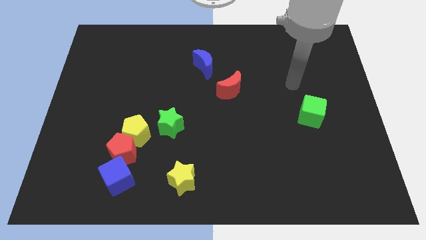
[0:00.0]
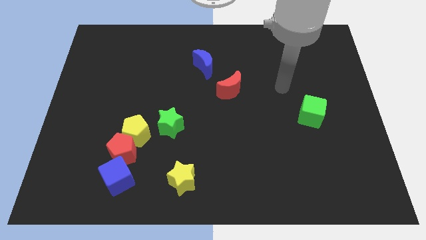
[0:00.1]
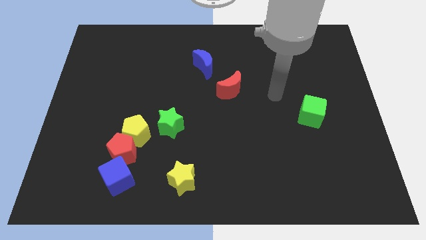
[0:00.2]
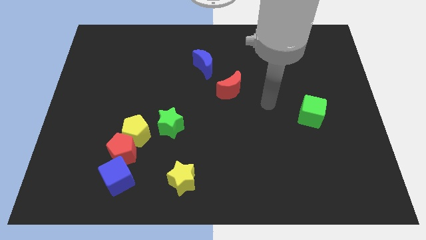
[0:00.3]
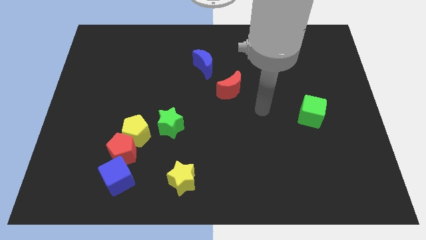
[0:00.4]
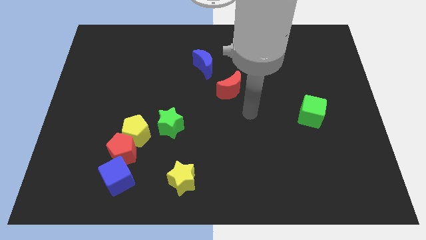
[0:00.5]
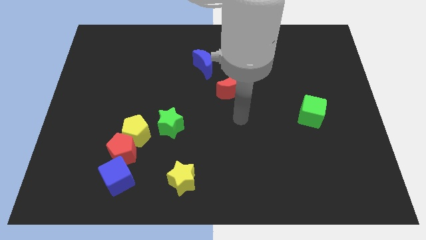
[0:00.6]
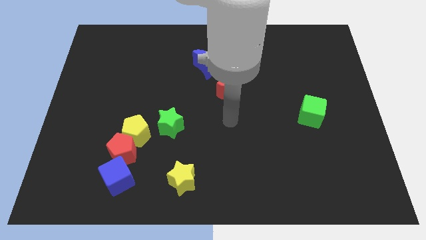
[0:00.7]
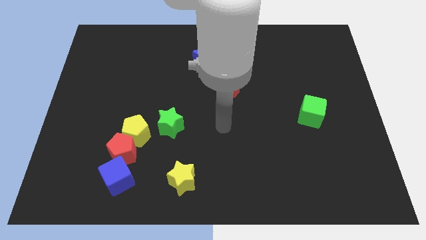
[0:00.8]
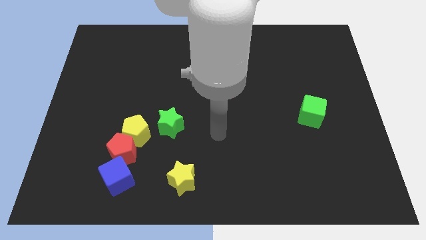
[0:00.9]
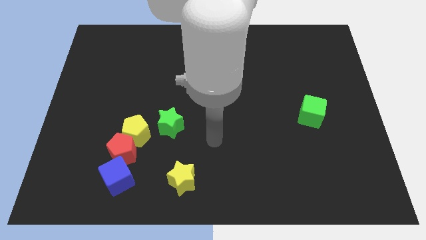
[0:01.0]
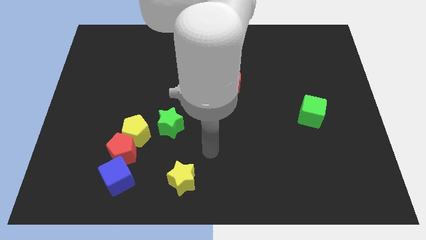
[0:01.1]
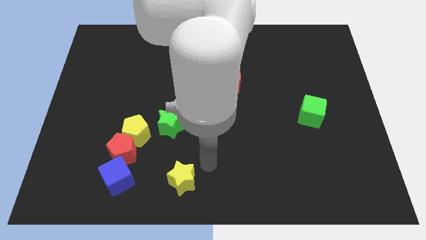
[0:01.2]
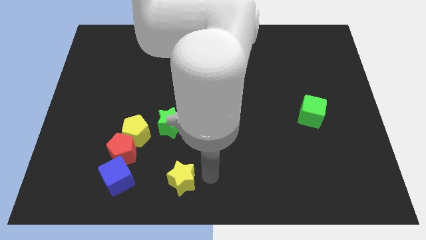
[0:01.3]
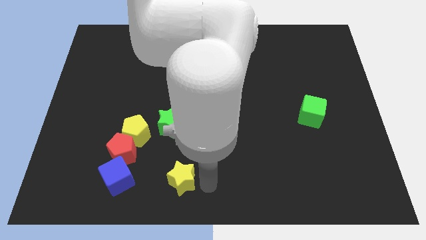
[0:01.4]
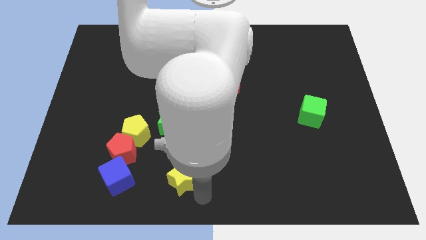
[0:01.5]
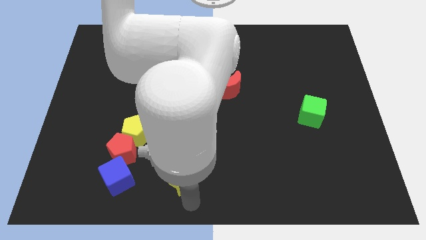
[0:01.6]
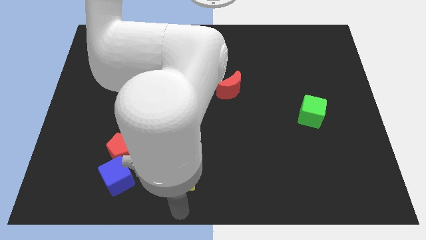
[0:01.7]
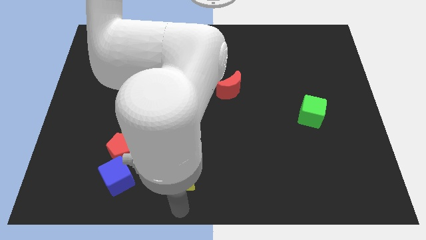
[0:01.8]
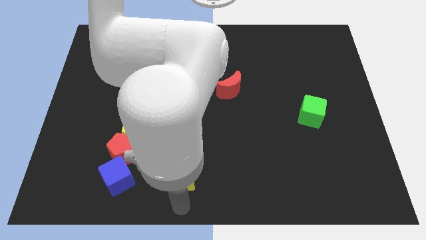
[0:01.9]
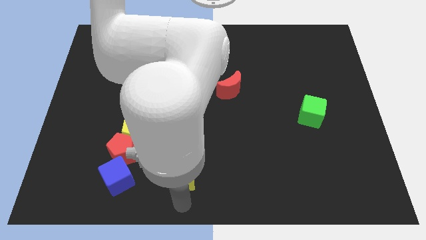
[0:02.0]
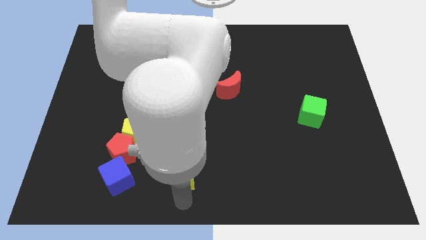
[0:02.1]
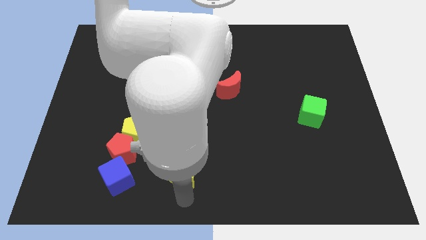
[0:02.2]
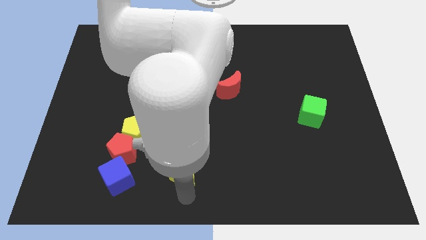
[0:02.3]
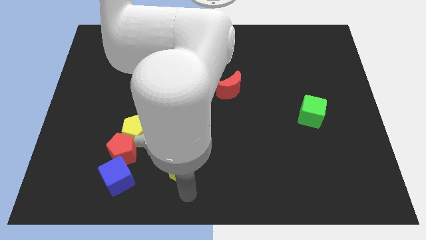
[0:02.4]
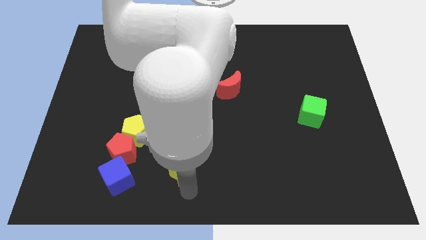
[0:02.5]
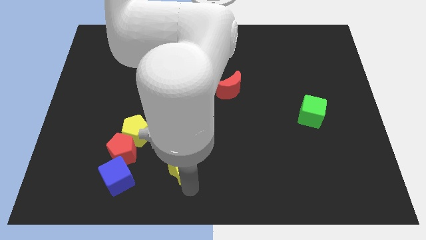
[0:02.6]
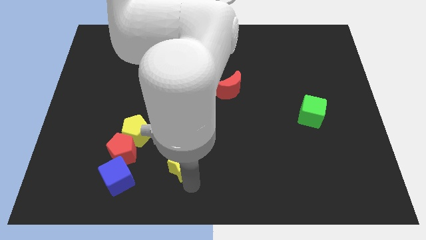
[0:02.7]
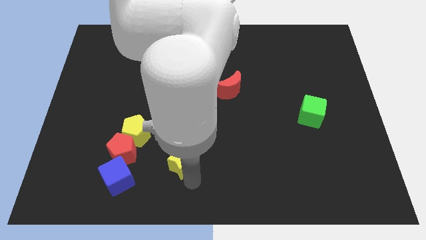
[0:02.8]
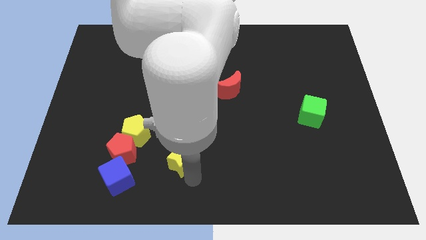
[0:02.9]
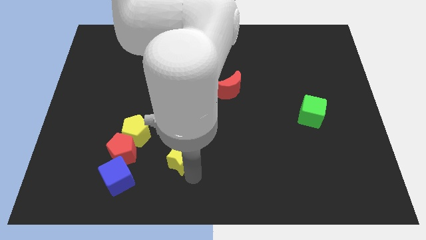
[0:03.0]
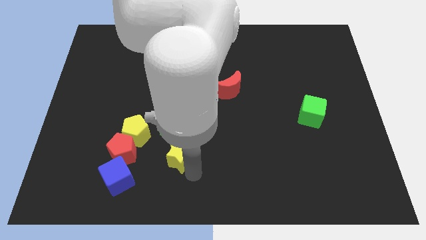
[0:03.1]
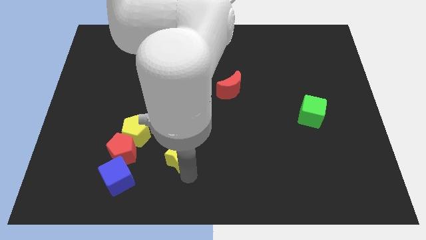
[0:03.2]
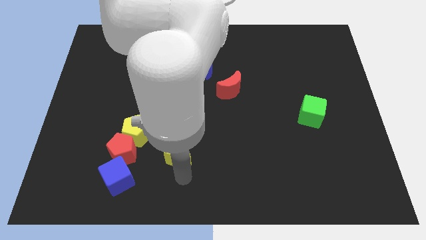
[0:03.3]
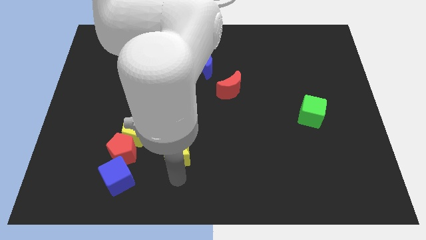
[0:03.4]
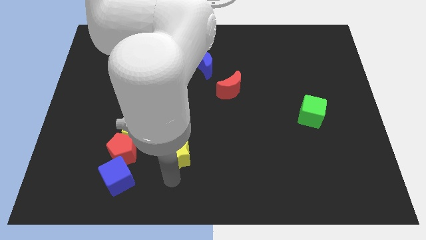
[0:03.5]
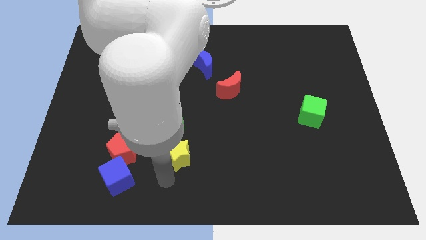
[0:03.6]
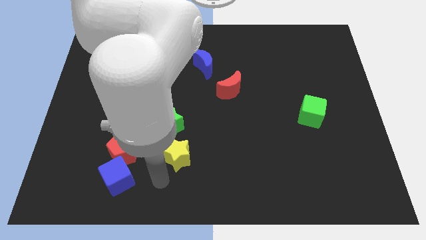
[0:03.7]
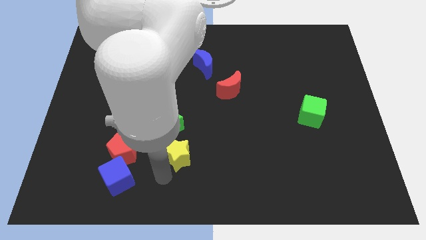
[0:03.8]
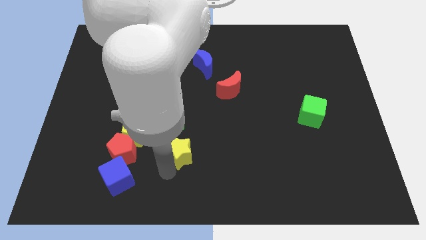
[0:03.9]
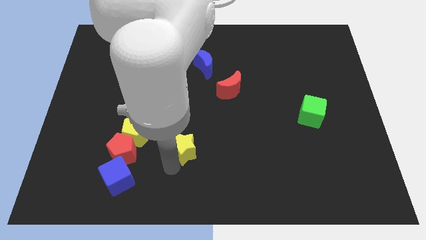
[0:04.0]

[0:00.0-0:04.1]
slightly slide the yellow star up

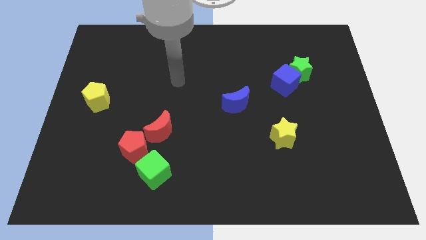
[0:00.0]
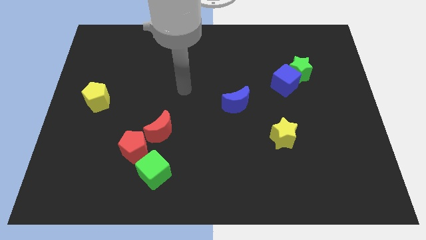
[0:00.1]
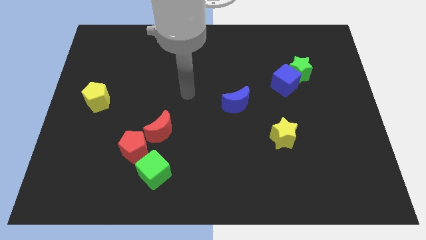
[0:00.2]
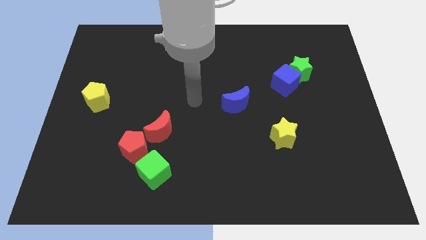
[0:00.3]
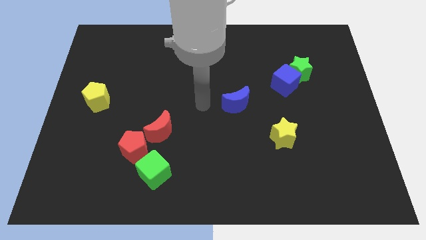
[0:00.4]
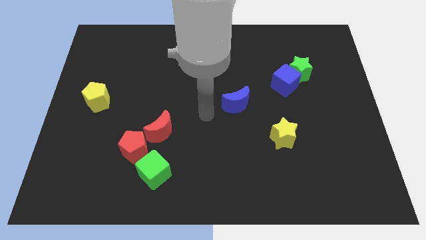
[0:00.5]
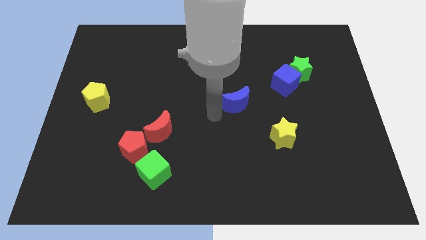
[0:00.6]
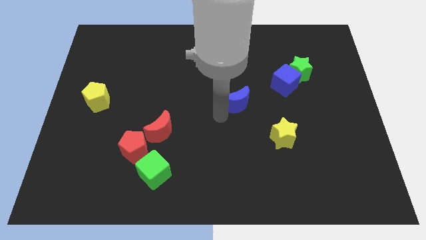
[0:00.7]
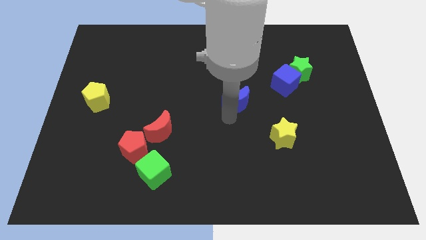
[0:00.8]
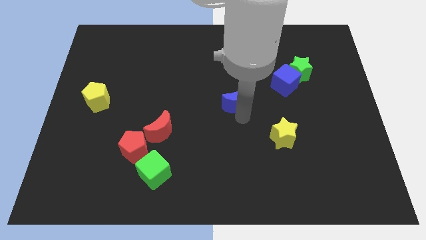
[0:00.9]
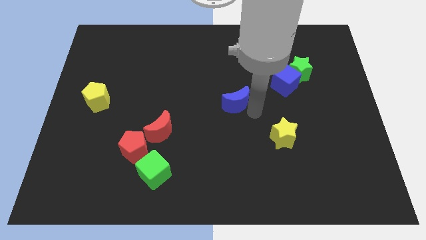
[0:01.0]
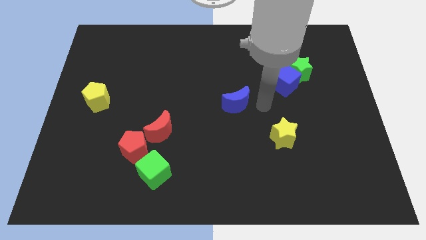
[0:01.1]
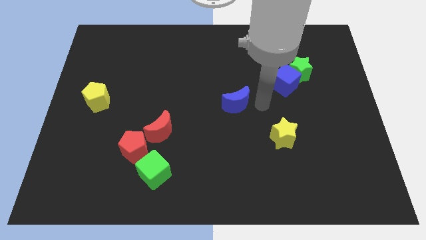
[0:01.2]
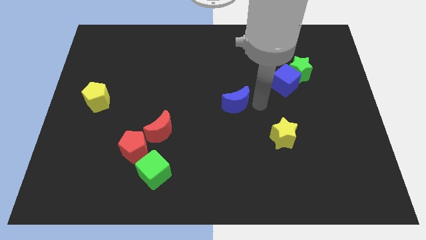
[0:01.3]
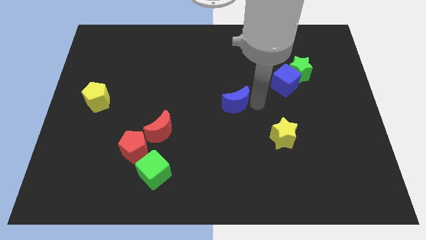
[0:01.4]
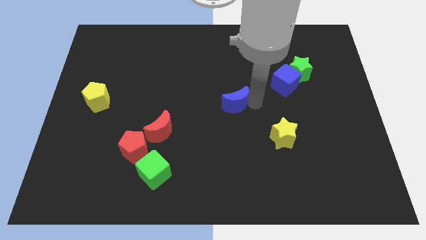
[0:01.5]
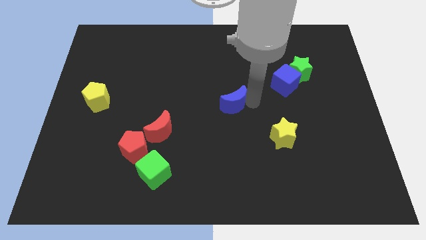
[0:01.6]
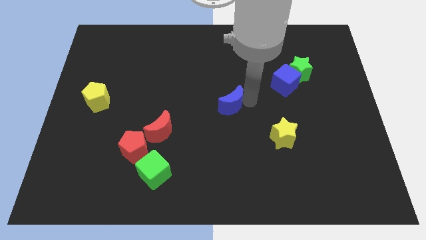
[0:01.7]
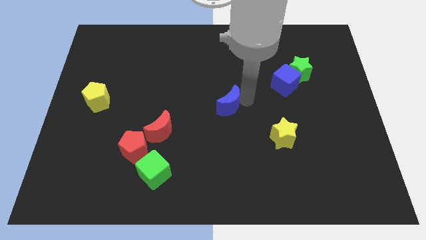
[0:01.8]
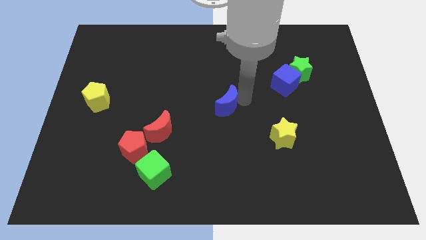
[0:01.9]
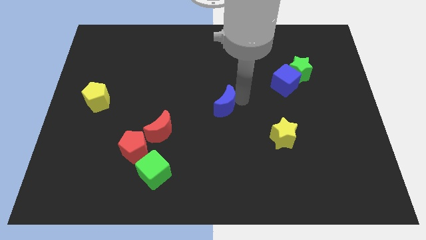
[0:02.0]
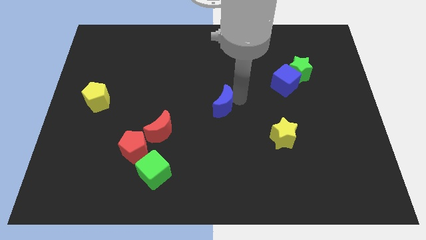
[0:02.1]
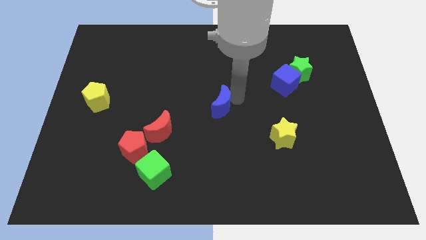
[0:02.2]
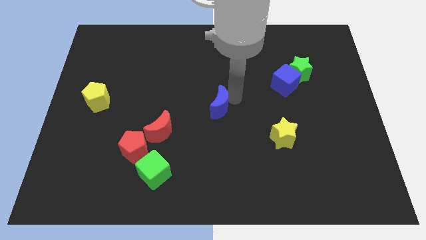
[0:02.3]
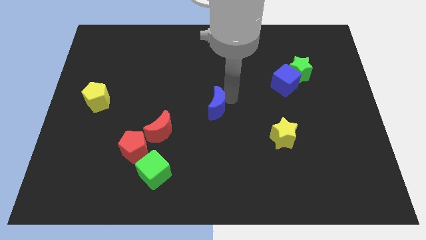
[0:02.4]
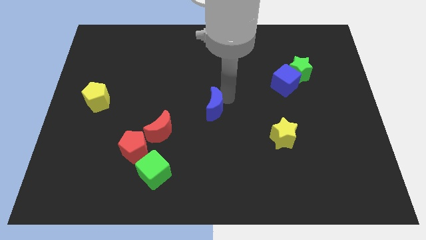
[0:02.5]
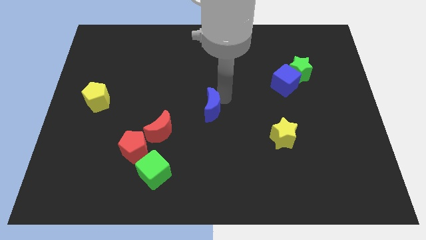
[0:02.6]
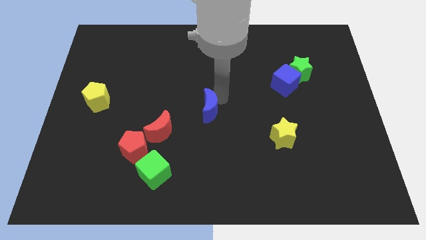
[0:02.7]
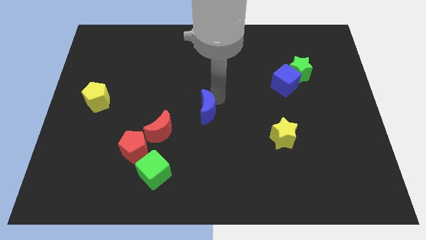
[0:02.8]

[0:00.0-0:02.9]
slide the blue moon a little to the left

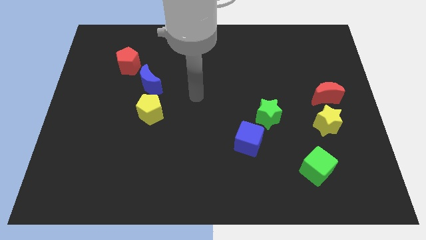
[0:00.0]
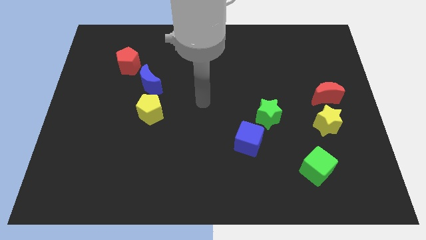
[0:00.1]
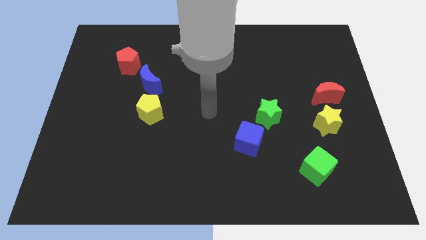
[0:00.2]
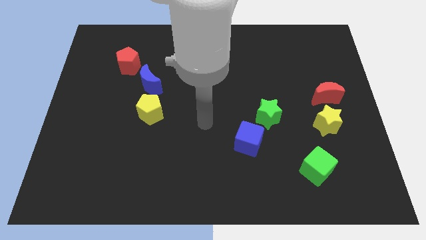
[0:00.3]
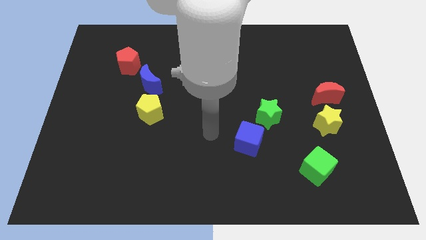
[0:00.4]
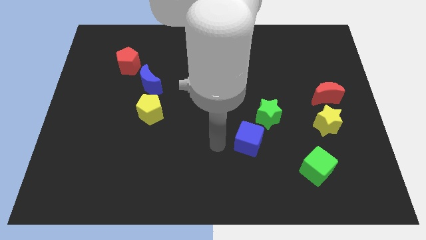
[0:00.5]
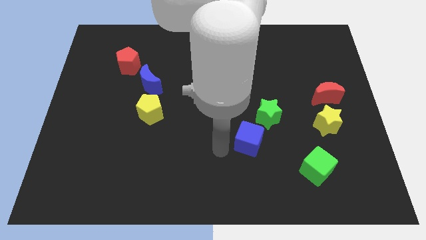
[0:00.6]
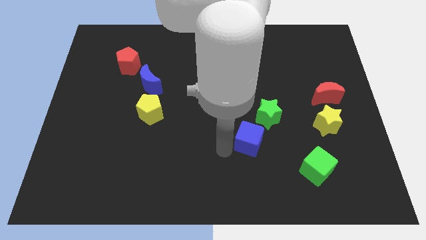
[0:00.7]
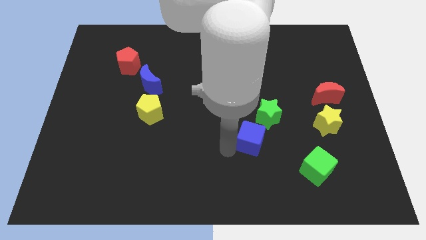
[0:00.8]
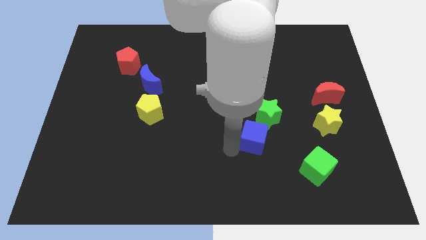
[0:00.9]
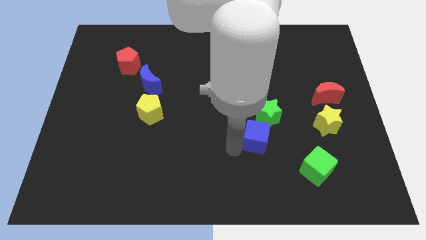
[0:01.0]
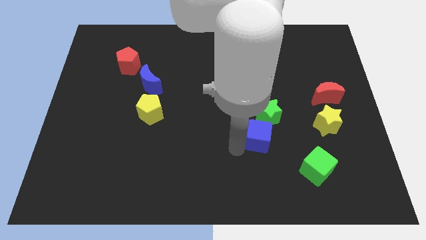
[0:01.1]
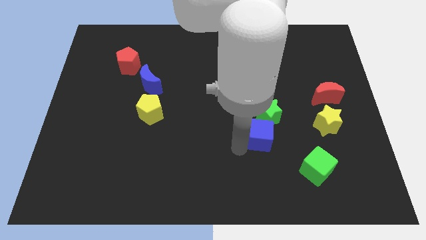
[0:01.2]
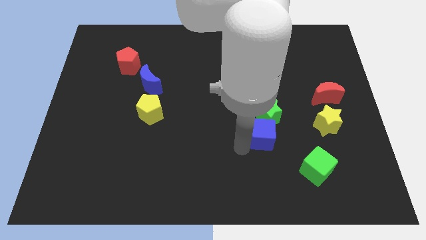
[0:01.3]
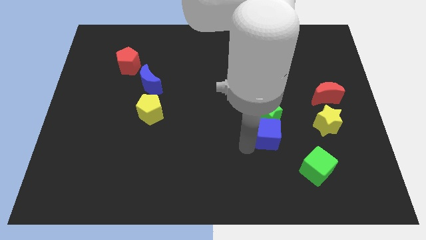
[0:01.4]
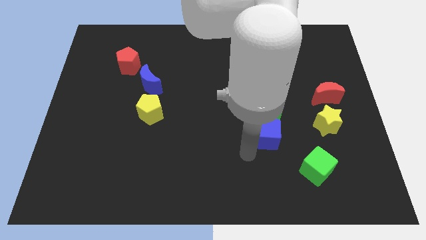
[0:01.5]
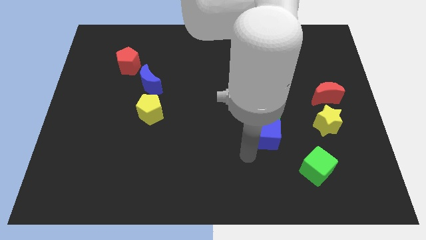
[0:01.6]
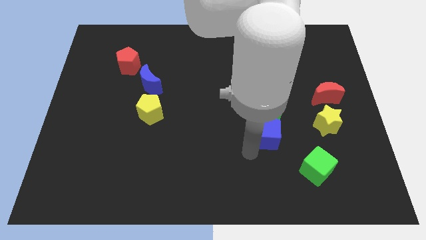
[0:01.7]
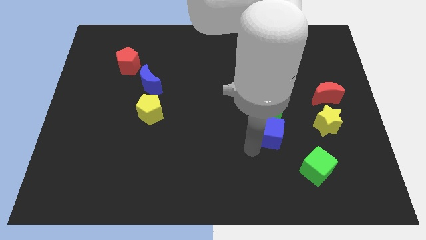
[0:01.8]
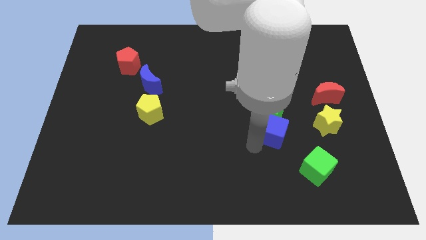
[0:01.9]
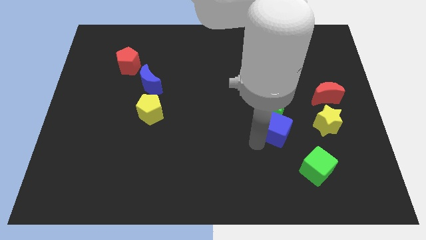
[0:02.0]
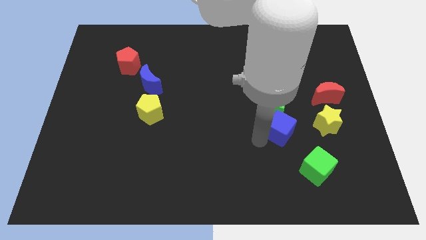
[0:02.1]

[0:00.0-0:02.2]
slightly push the blue cube upwards and then to the right
